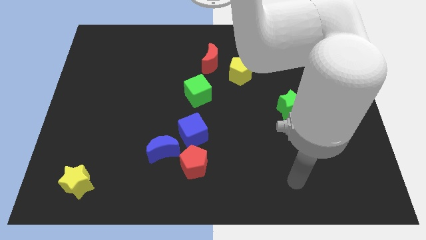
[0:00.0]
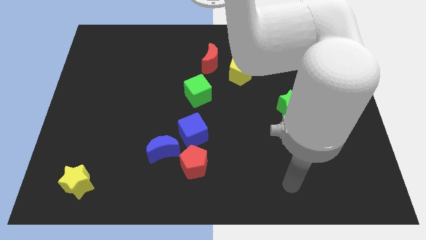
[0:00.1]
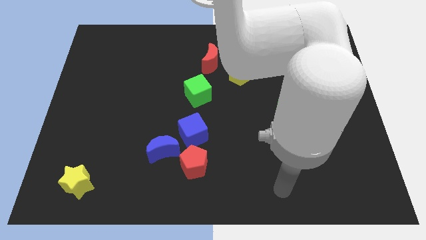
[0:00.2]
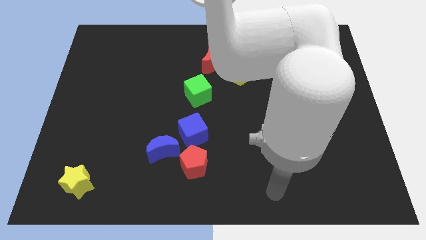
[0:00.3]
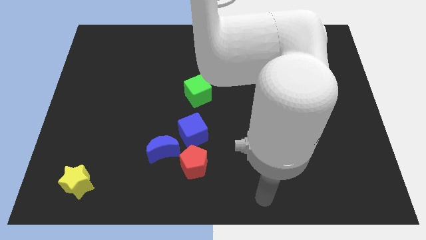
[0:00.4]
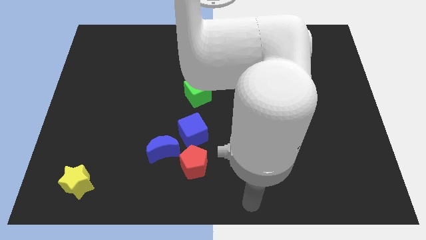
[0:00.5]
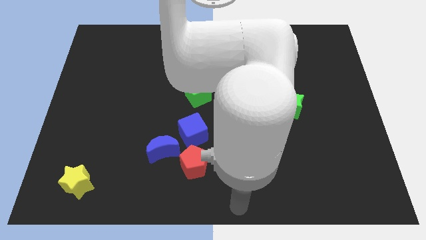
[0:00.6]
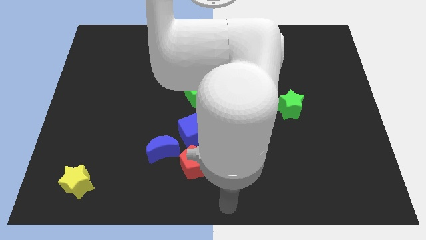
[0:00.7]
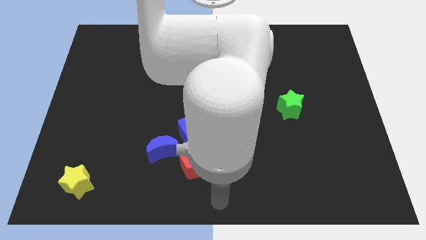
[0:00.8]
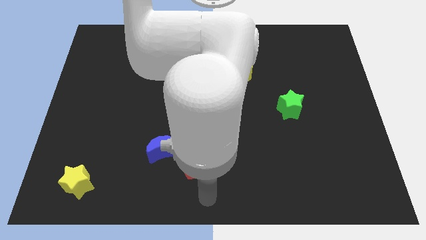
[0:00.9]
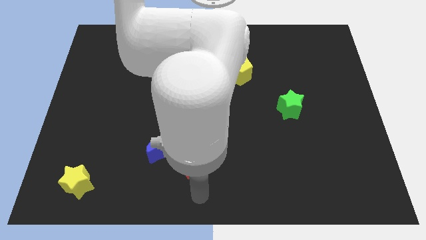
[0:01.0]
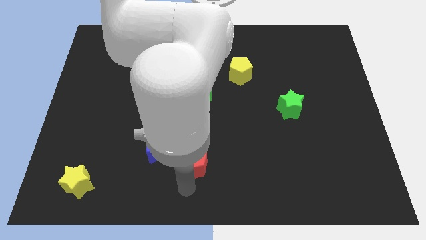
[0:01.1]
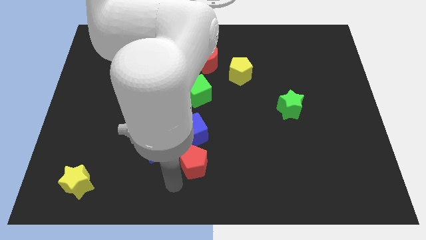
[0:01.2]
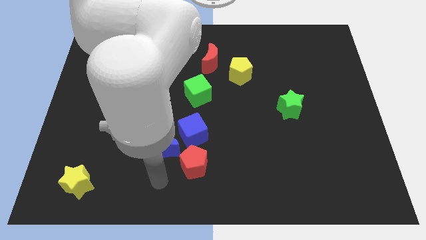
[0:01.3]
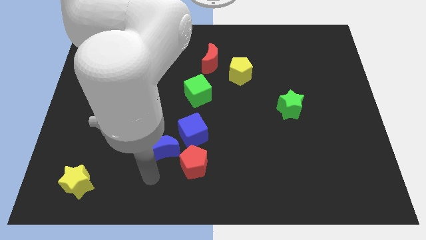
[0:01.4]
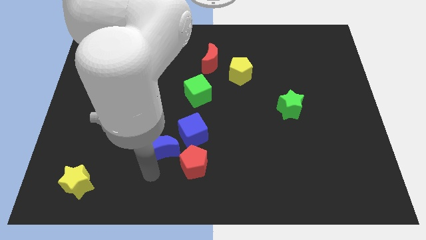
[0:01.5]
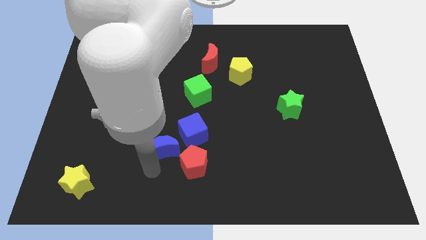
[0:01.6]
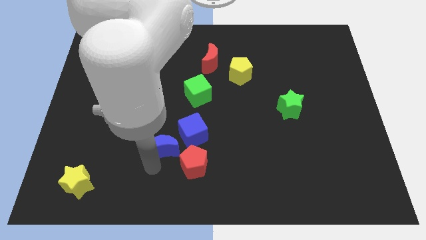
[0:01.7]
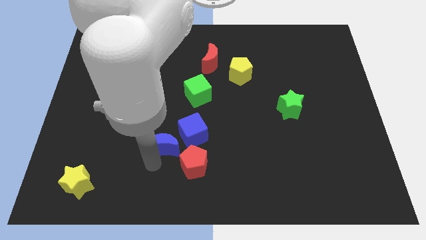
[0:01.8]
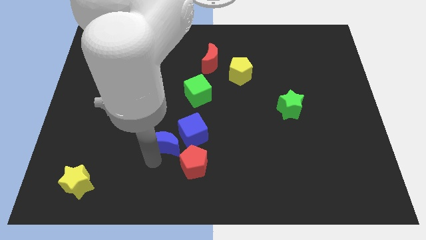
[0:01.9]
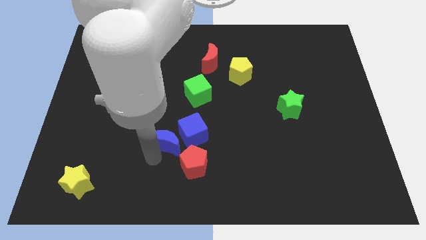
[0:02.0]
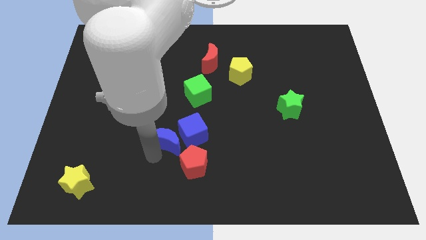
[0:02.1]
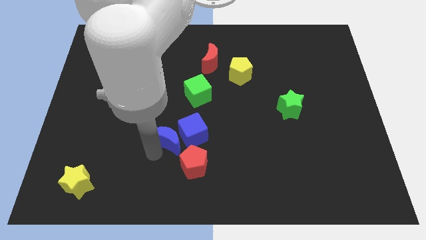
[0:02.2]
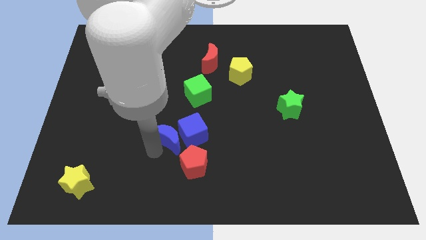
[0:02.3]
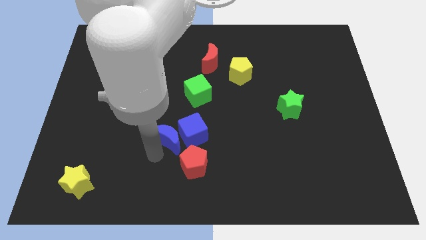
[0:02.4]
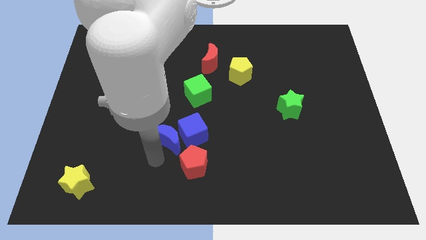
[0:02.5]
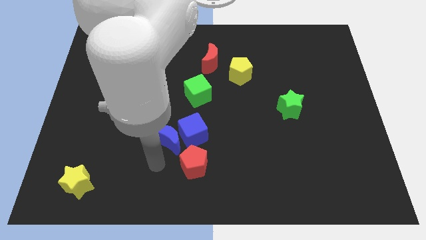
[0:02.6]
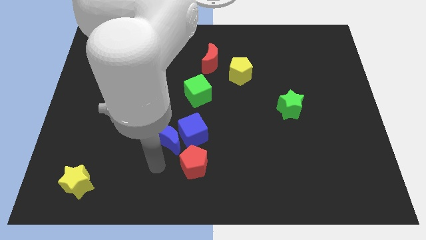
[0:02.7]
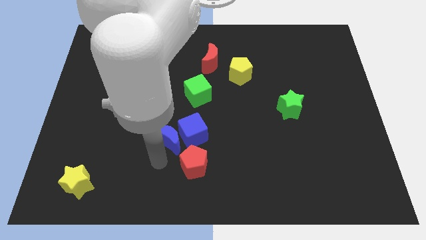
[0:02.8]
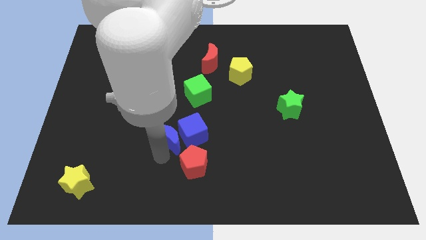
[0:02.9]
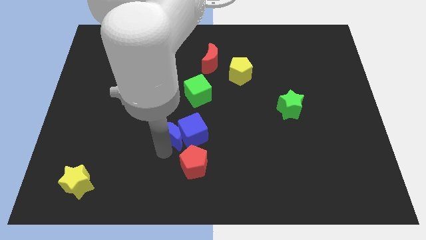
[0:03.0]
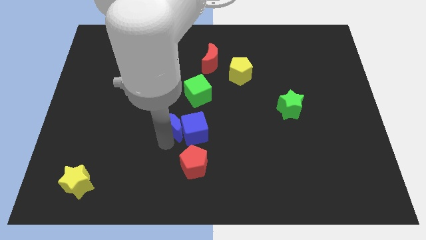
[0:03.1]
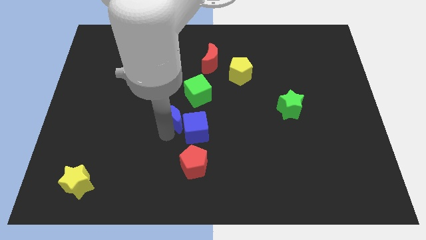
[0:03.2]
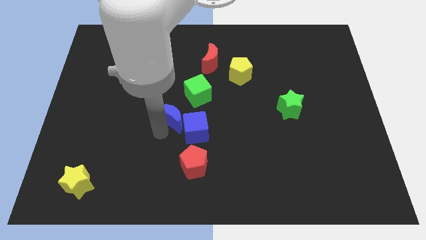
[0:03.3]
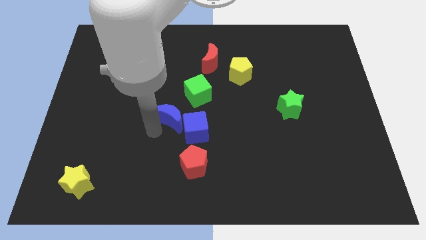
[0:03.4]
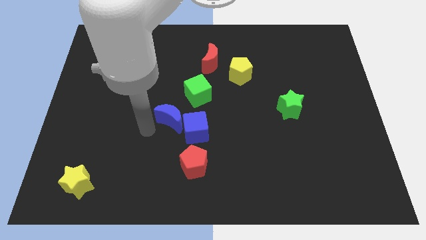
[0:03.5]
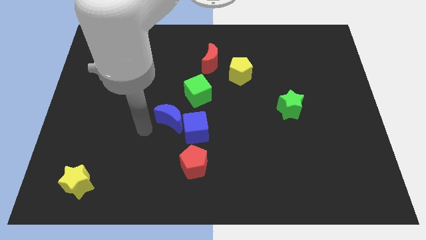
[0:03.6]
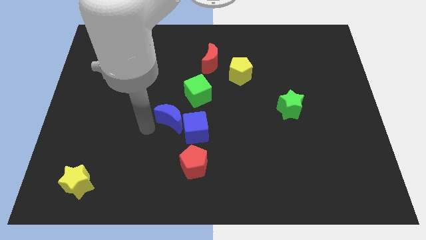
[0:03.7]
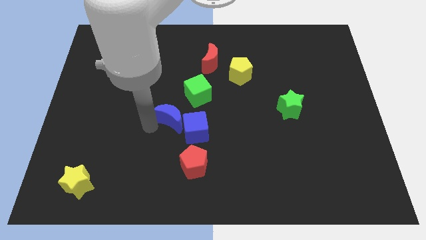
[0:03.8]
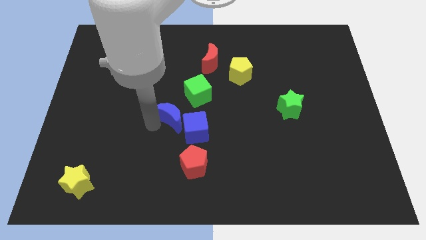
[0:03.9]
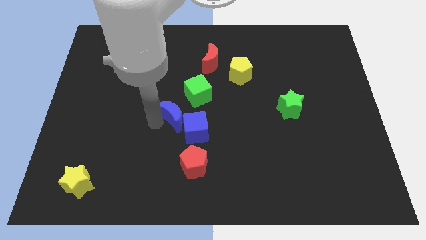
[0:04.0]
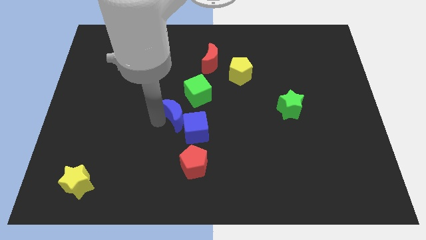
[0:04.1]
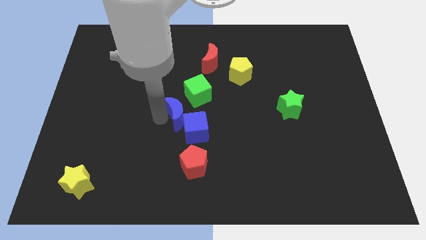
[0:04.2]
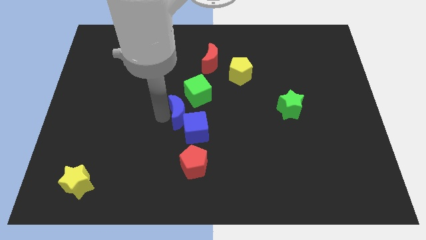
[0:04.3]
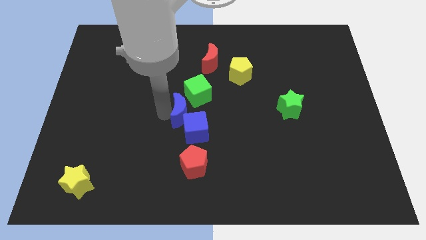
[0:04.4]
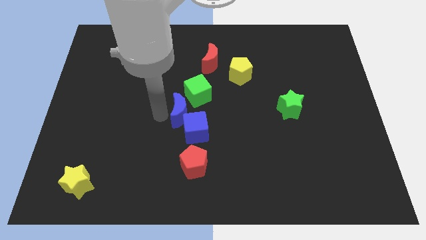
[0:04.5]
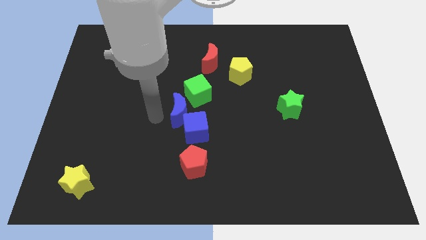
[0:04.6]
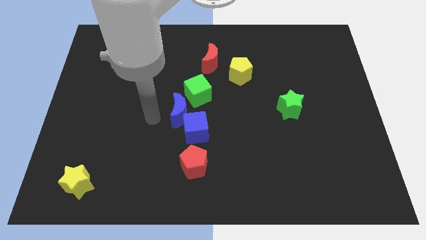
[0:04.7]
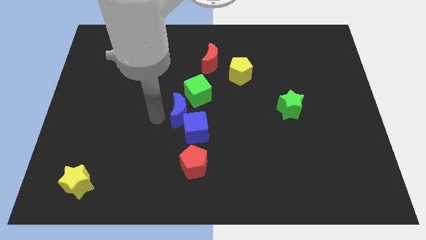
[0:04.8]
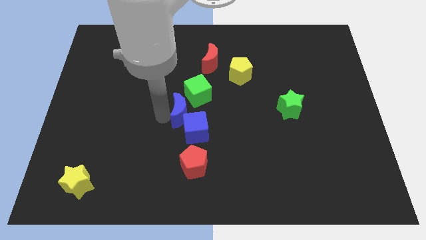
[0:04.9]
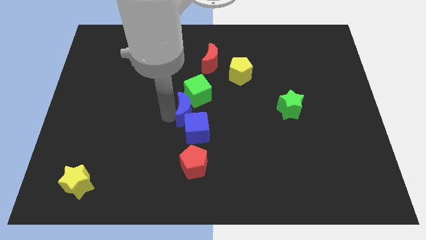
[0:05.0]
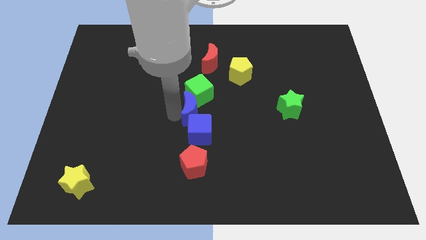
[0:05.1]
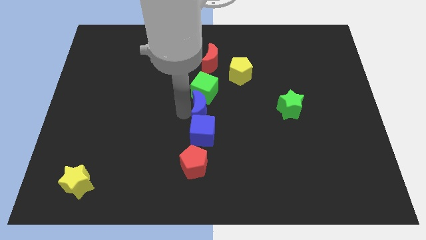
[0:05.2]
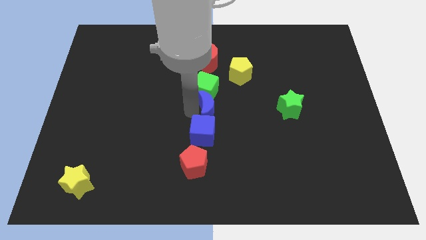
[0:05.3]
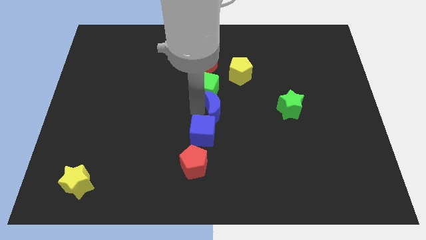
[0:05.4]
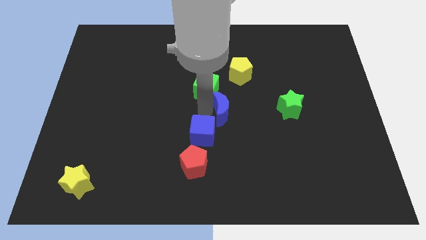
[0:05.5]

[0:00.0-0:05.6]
slide the blue moon to the left side of the green star

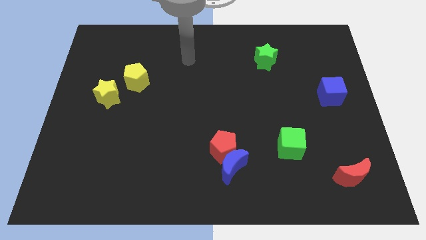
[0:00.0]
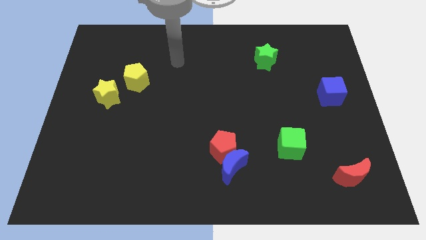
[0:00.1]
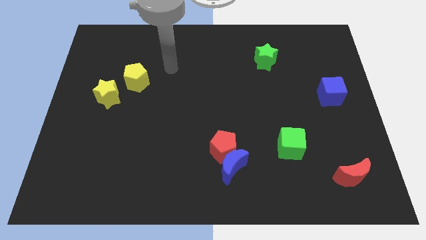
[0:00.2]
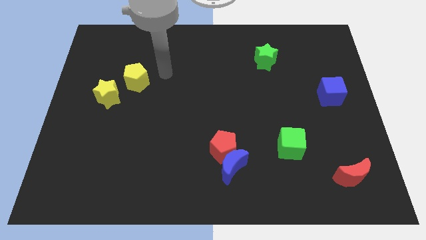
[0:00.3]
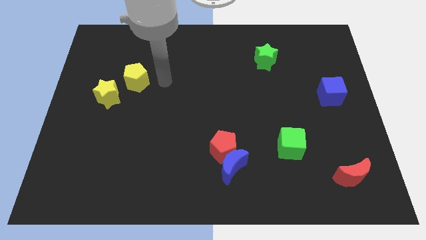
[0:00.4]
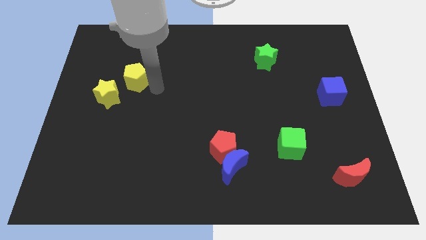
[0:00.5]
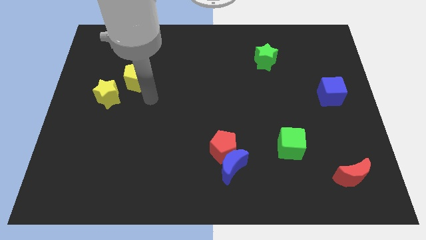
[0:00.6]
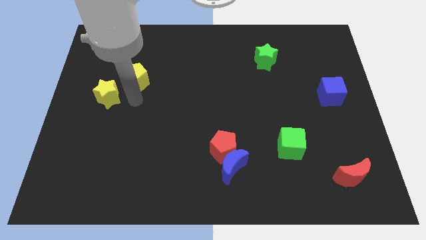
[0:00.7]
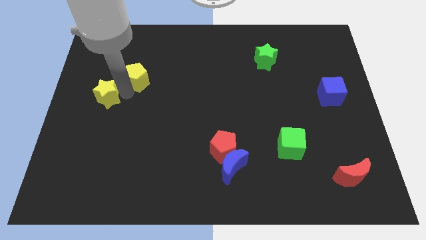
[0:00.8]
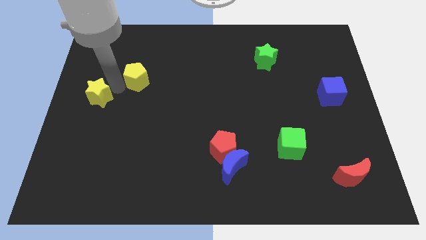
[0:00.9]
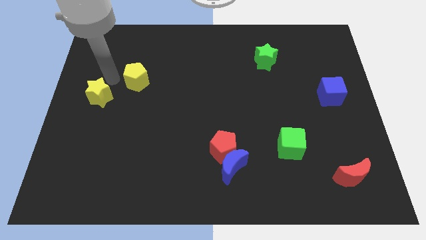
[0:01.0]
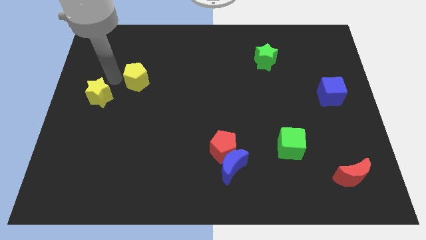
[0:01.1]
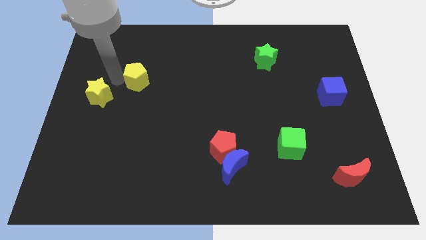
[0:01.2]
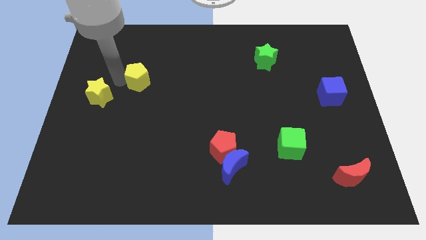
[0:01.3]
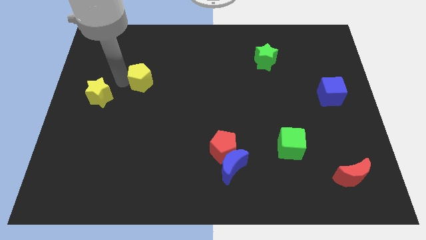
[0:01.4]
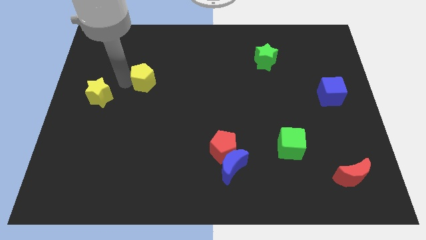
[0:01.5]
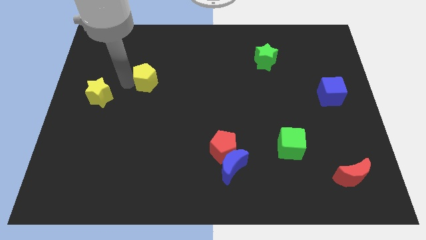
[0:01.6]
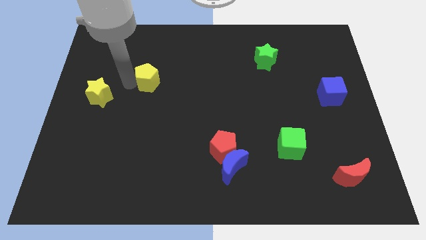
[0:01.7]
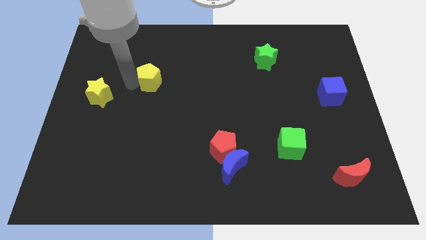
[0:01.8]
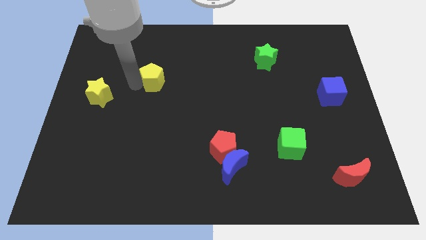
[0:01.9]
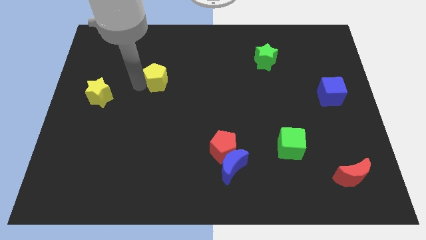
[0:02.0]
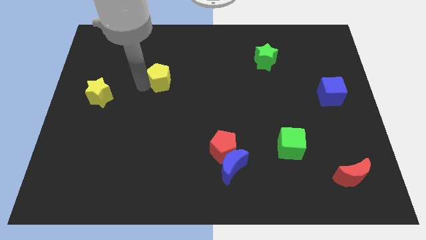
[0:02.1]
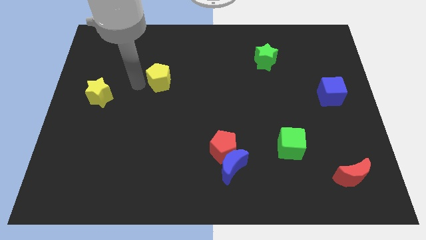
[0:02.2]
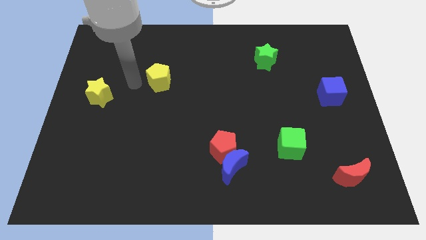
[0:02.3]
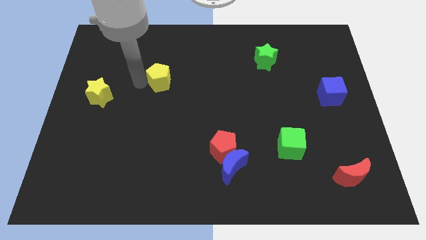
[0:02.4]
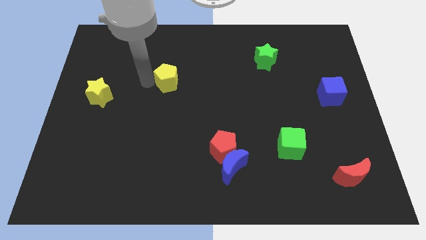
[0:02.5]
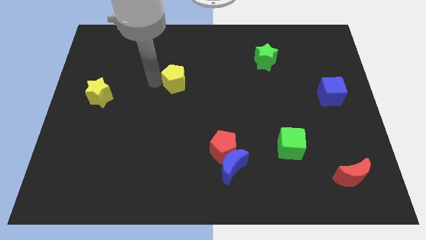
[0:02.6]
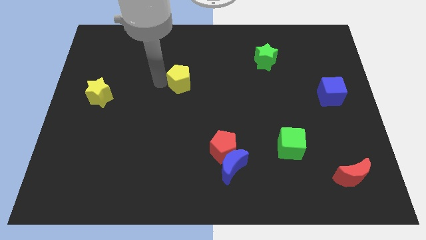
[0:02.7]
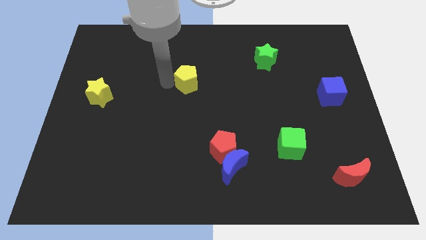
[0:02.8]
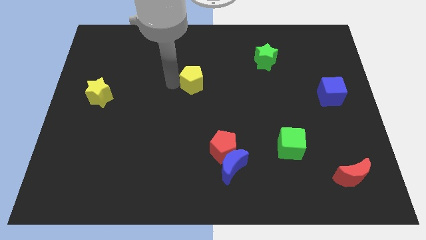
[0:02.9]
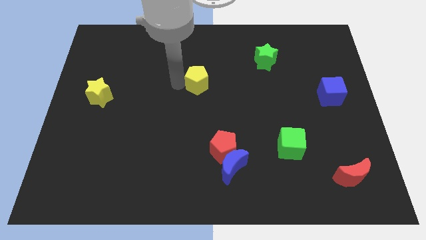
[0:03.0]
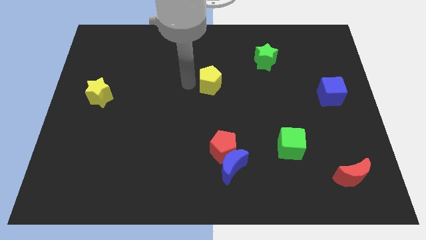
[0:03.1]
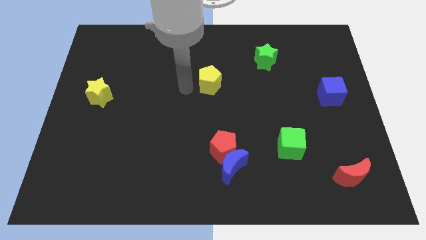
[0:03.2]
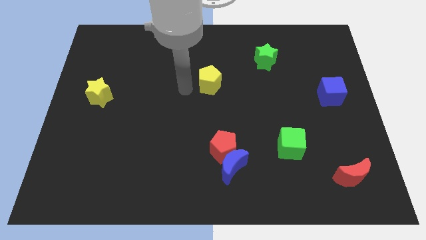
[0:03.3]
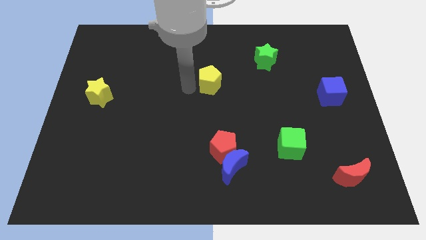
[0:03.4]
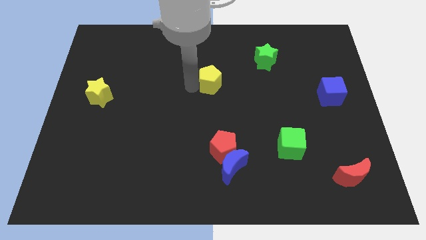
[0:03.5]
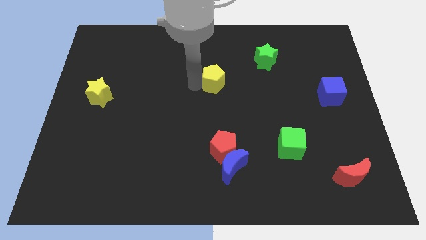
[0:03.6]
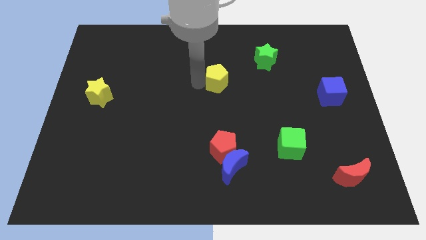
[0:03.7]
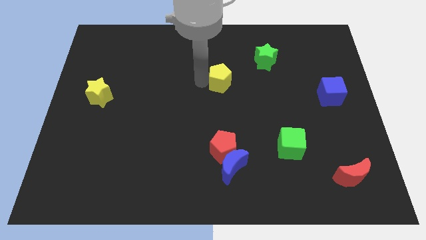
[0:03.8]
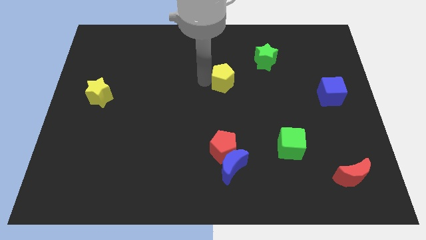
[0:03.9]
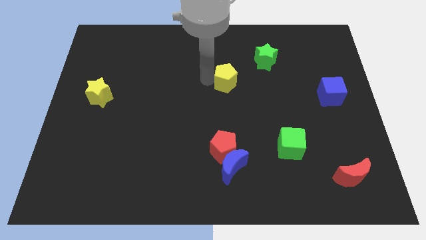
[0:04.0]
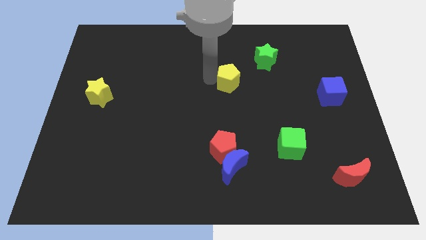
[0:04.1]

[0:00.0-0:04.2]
push the yellow pentagon to the bottom left side of the green star
